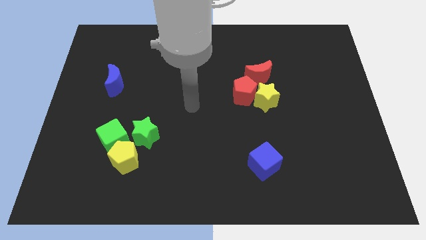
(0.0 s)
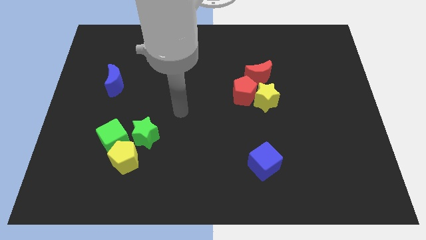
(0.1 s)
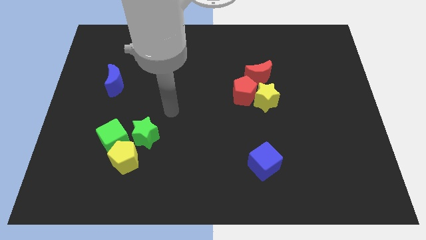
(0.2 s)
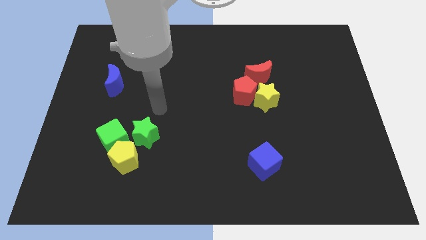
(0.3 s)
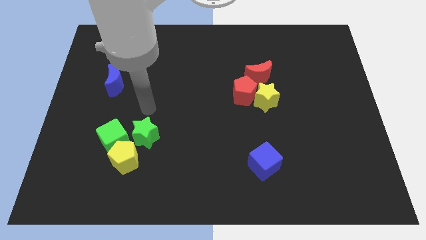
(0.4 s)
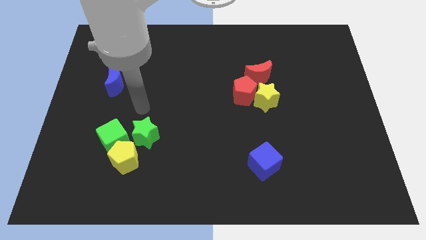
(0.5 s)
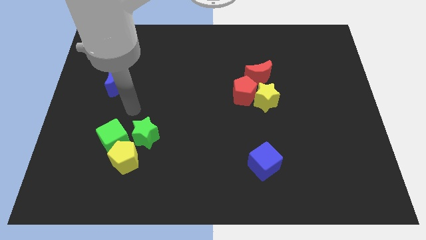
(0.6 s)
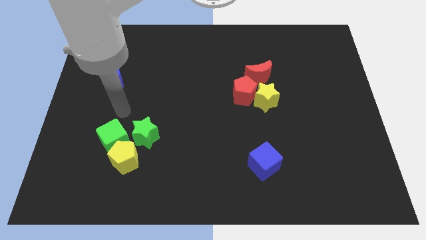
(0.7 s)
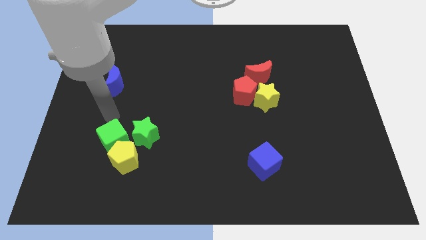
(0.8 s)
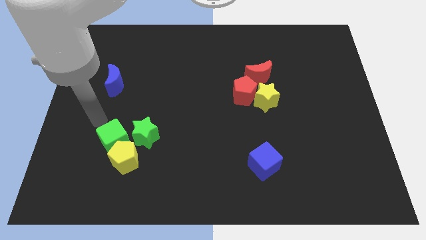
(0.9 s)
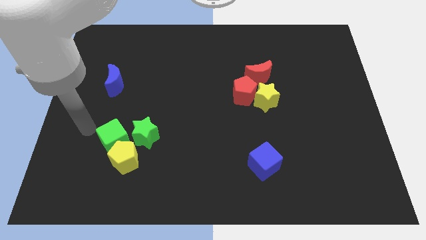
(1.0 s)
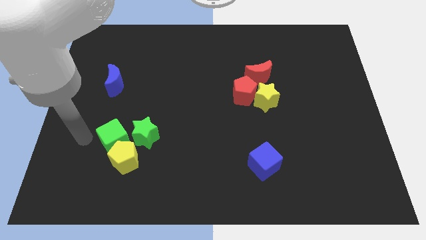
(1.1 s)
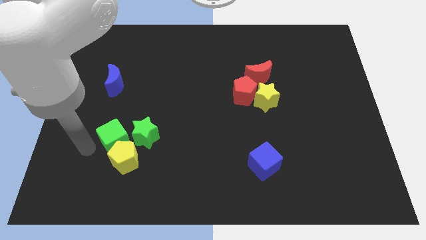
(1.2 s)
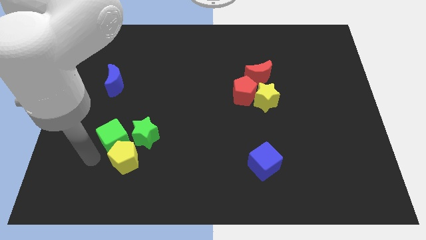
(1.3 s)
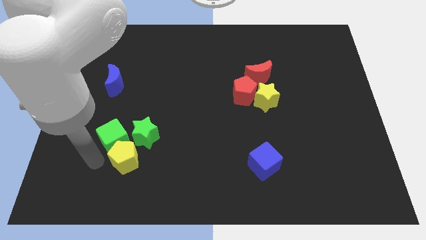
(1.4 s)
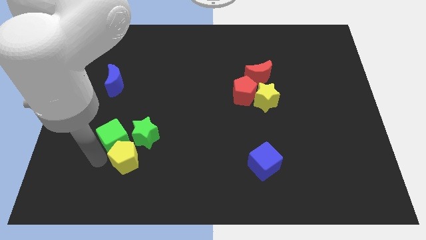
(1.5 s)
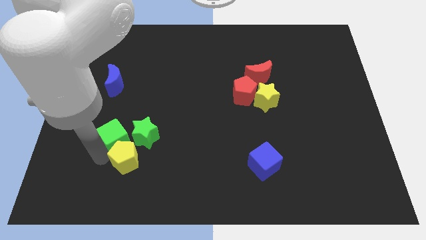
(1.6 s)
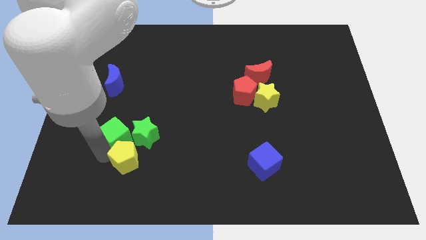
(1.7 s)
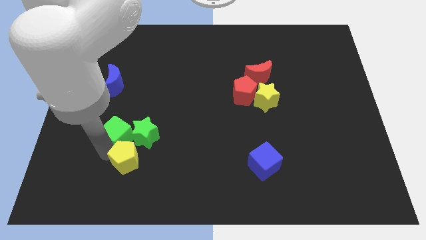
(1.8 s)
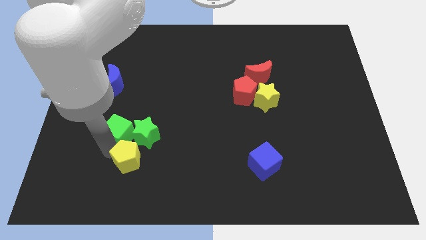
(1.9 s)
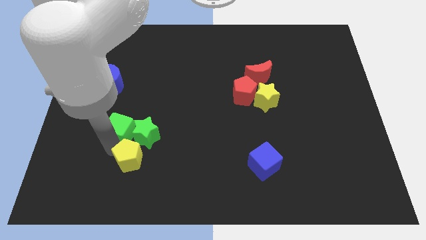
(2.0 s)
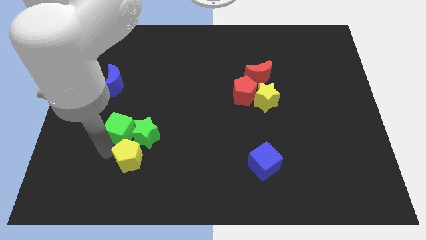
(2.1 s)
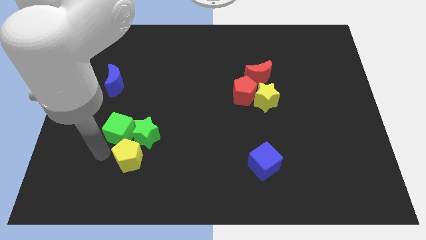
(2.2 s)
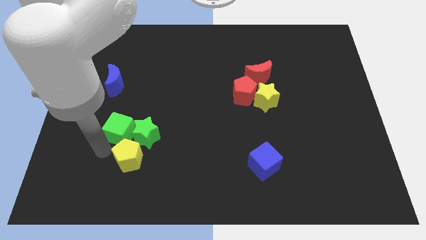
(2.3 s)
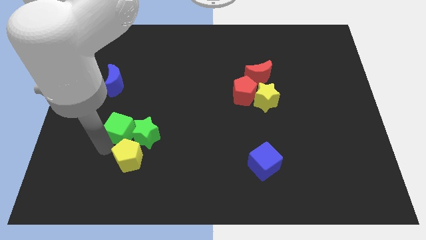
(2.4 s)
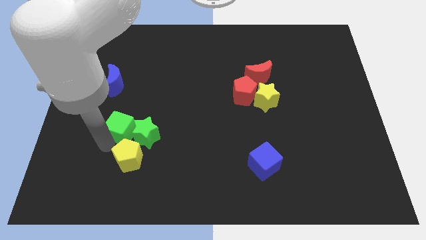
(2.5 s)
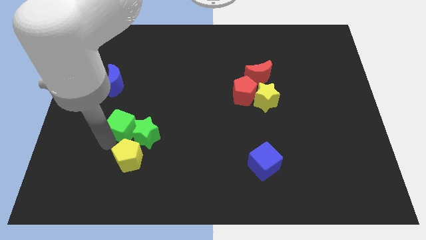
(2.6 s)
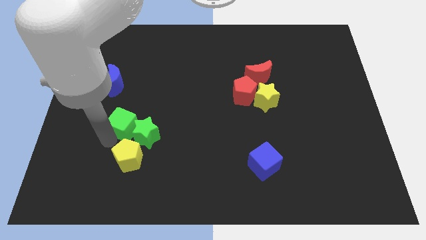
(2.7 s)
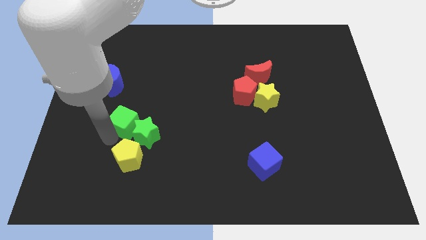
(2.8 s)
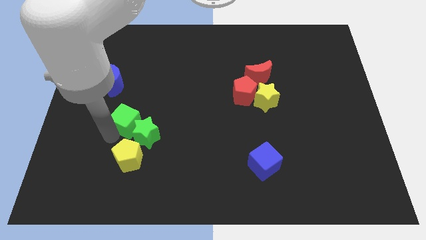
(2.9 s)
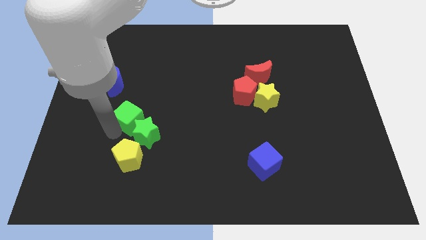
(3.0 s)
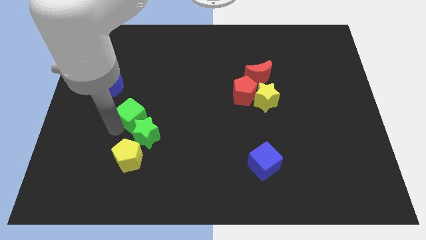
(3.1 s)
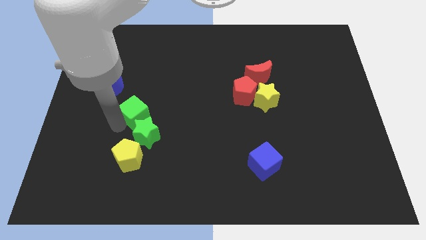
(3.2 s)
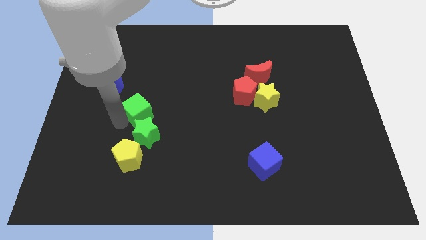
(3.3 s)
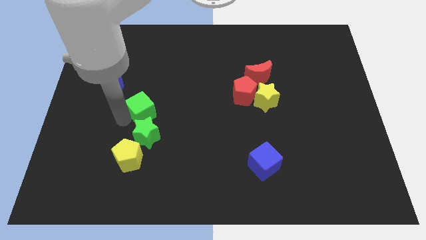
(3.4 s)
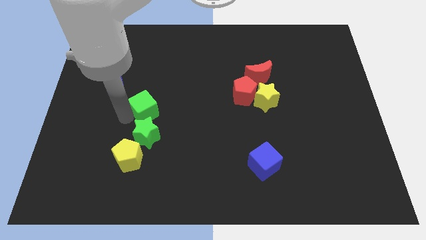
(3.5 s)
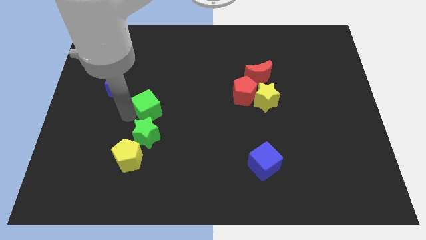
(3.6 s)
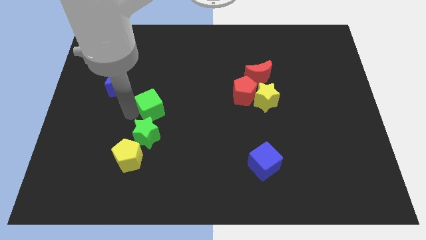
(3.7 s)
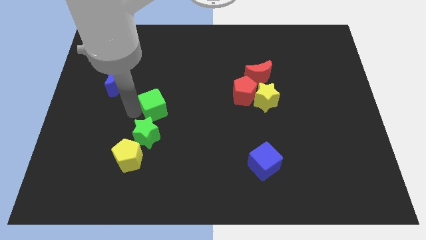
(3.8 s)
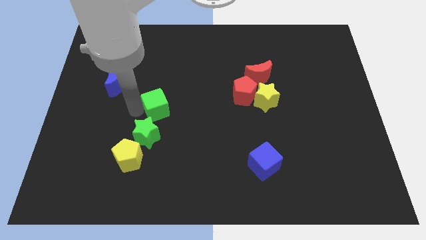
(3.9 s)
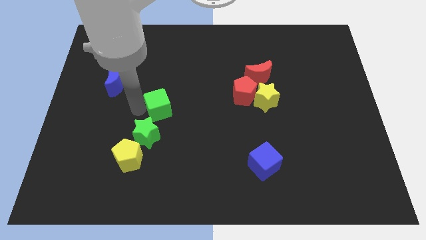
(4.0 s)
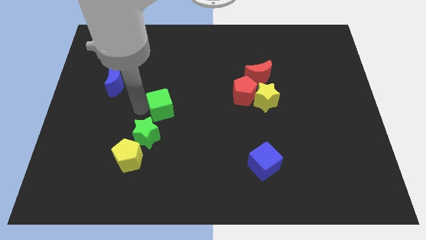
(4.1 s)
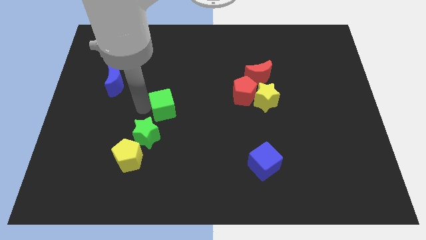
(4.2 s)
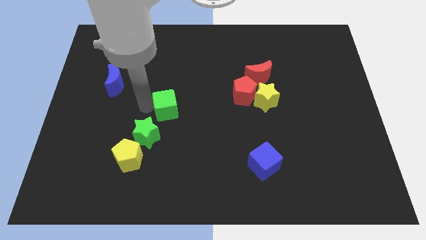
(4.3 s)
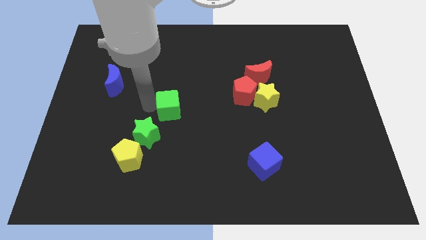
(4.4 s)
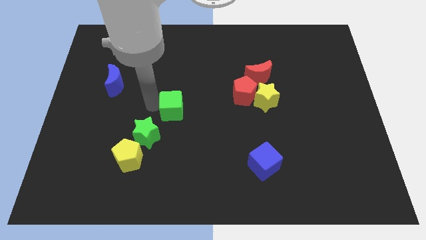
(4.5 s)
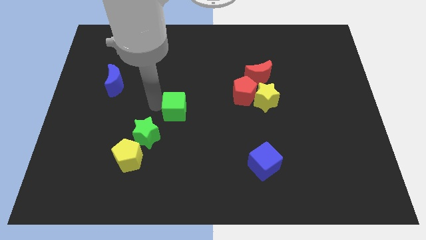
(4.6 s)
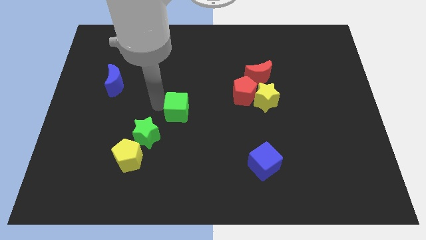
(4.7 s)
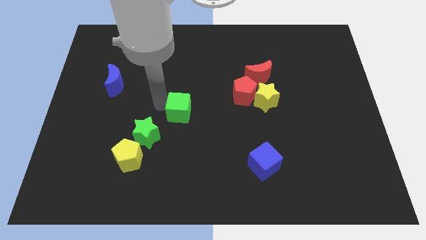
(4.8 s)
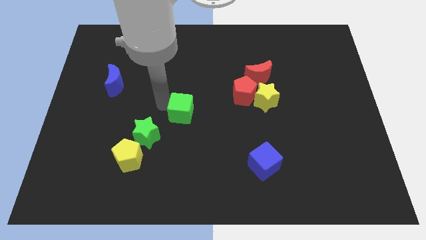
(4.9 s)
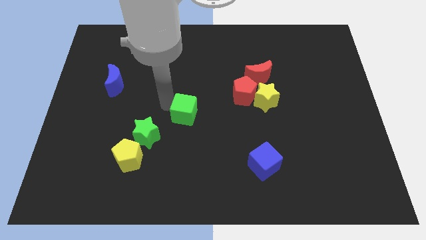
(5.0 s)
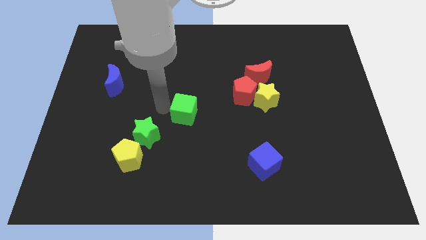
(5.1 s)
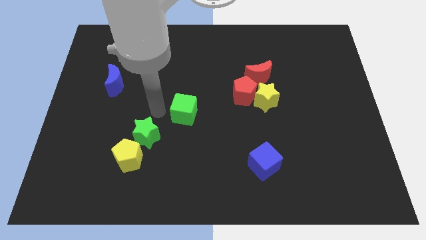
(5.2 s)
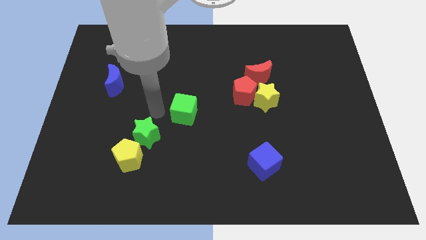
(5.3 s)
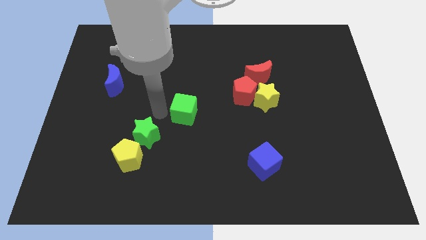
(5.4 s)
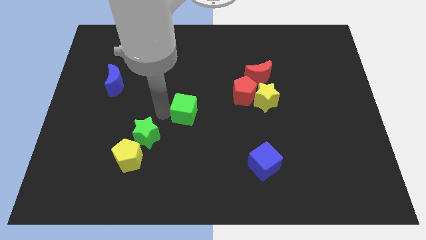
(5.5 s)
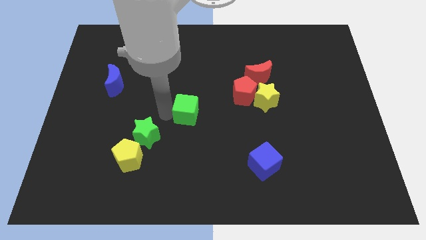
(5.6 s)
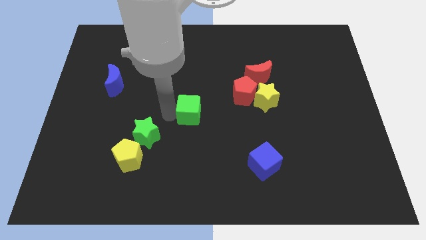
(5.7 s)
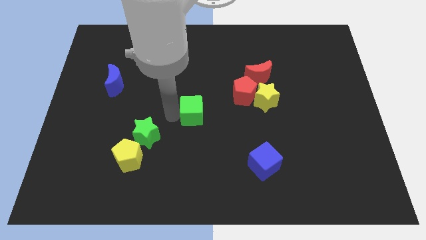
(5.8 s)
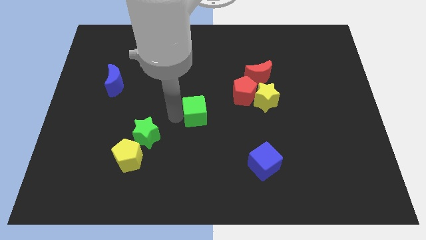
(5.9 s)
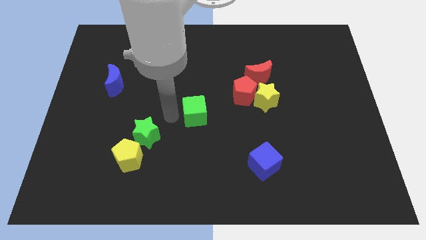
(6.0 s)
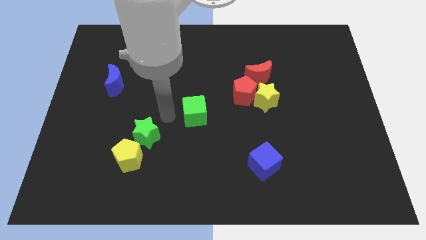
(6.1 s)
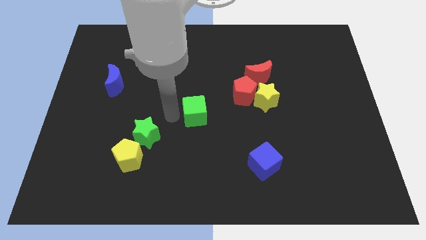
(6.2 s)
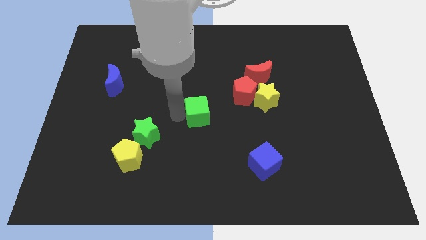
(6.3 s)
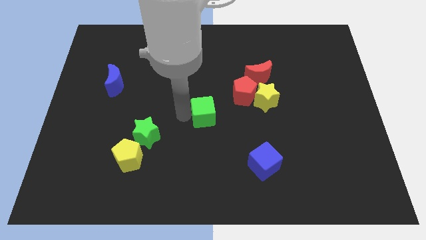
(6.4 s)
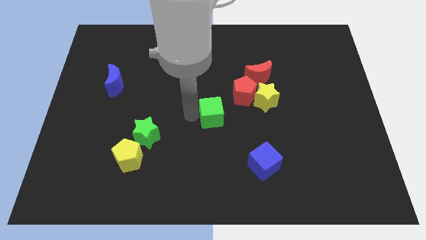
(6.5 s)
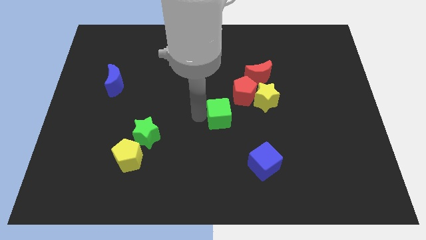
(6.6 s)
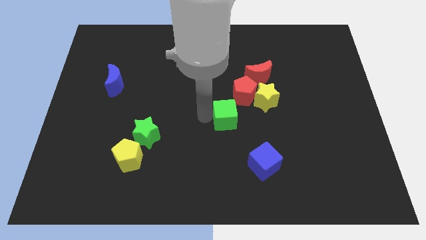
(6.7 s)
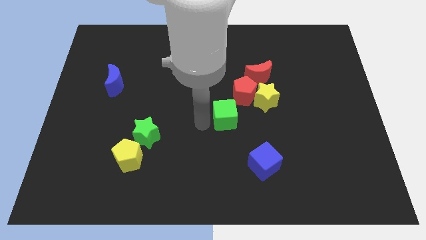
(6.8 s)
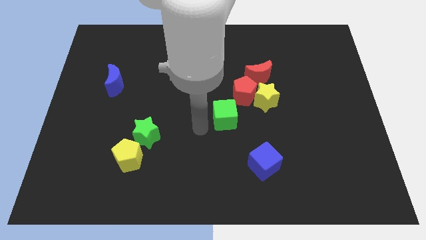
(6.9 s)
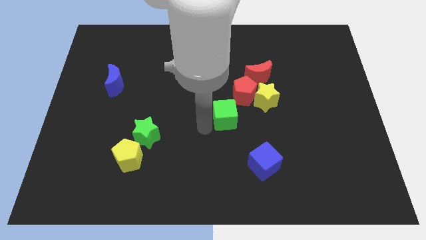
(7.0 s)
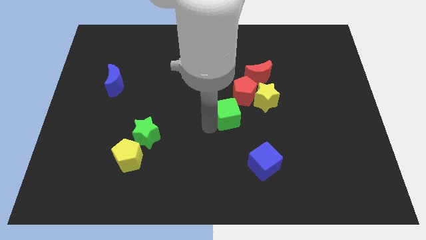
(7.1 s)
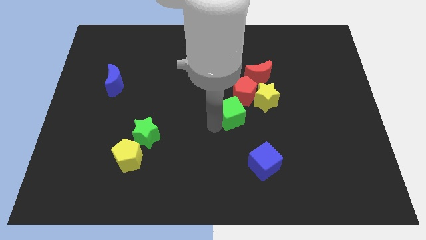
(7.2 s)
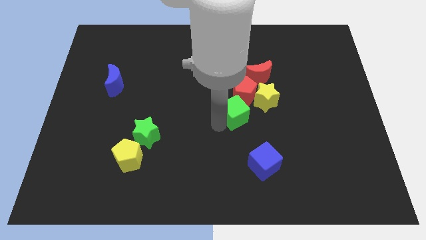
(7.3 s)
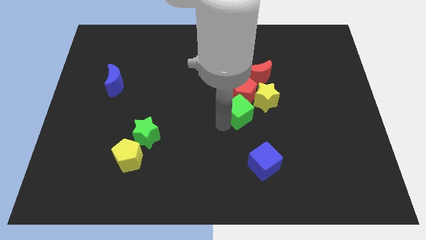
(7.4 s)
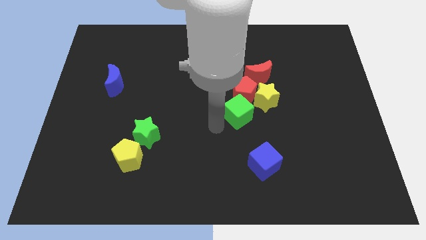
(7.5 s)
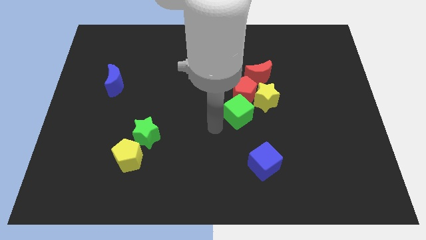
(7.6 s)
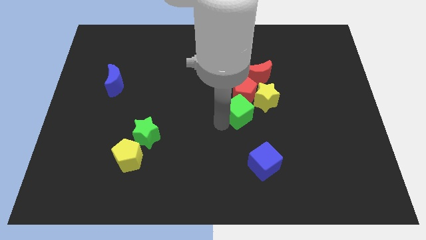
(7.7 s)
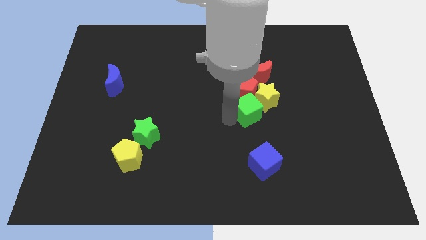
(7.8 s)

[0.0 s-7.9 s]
push the green cube next to the yellow star
